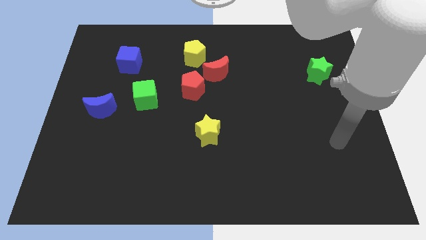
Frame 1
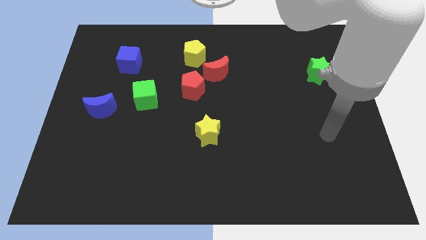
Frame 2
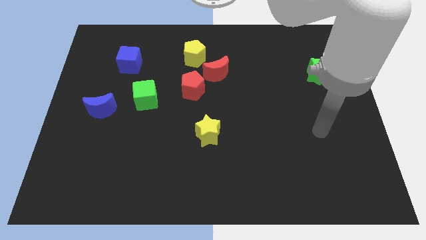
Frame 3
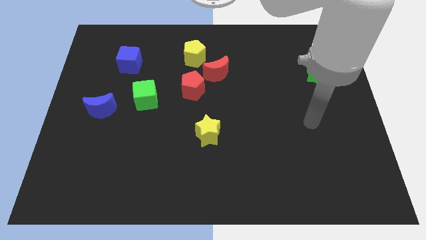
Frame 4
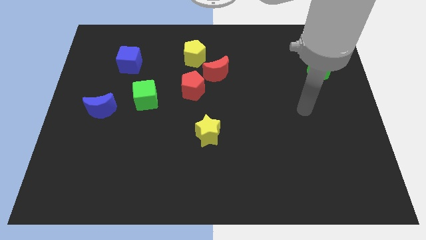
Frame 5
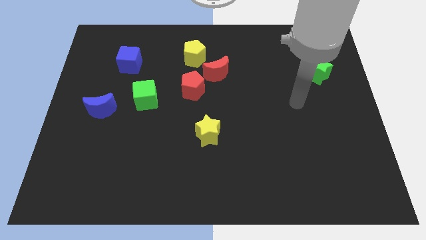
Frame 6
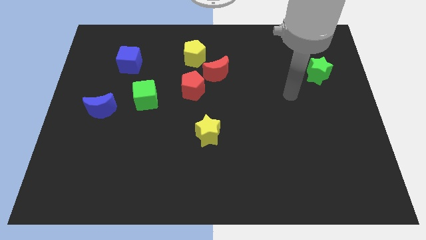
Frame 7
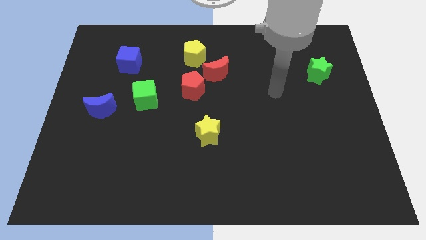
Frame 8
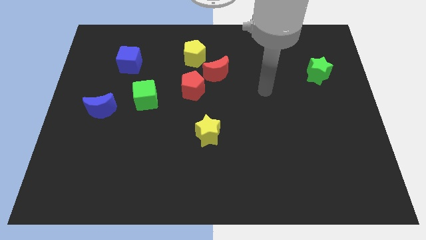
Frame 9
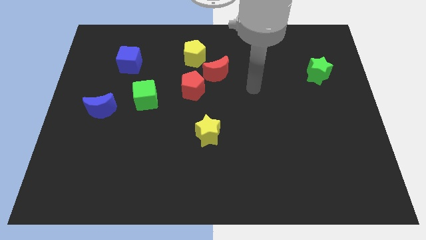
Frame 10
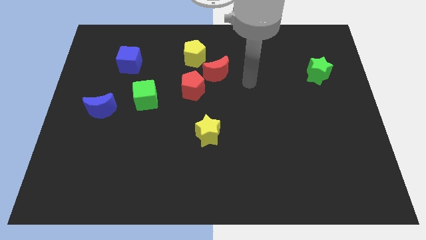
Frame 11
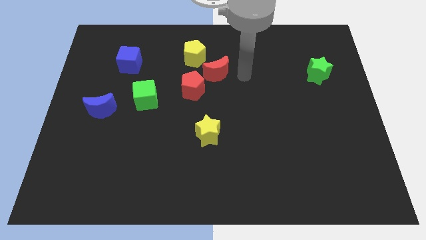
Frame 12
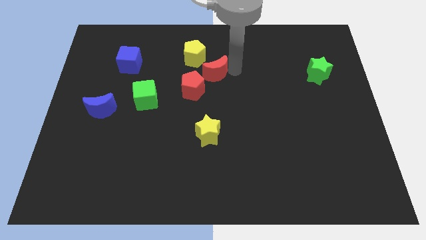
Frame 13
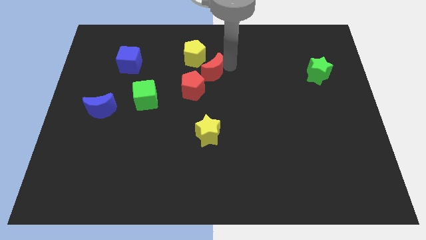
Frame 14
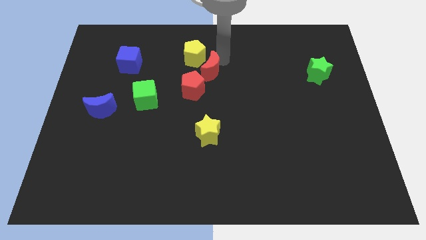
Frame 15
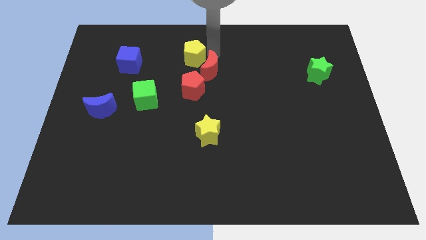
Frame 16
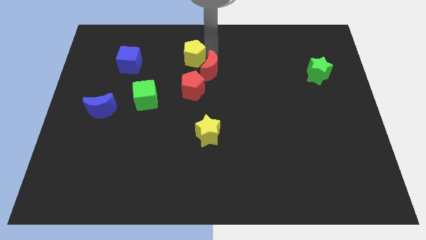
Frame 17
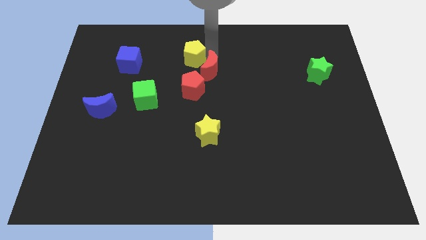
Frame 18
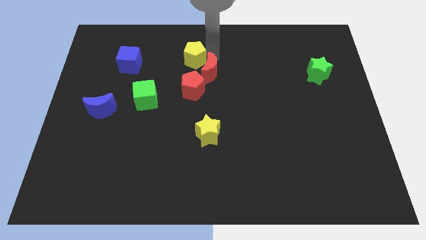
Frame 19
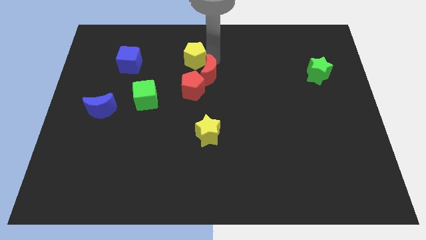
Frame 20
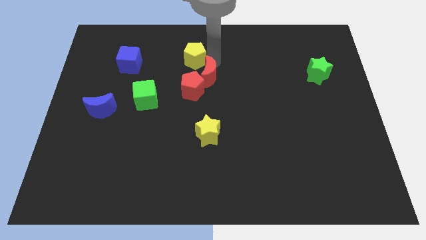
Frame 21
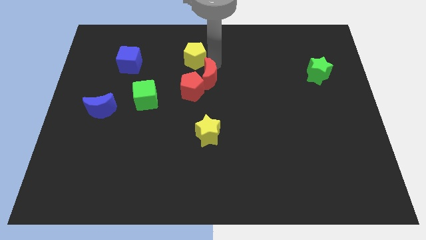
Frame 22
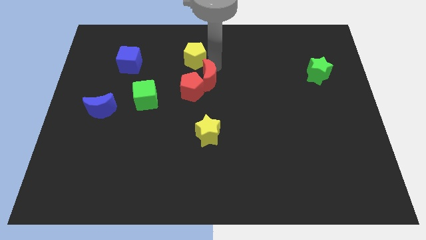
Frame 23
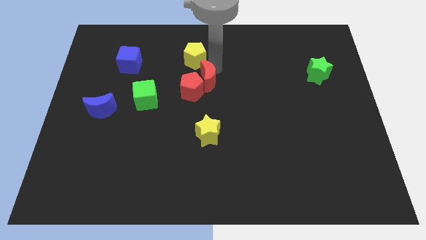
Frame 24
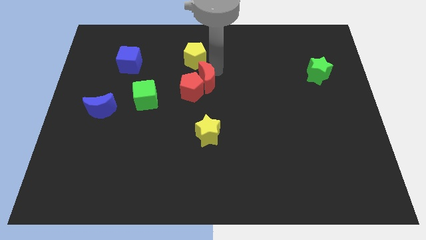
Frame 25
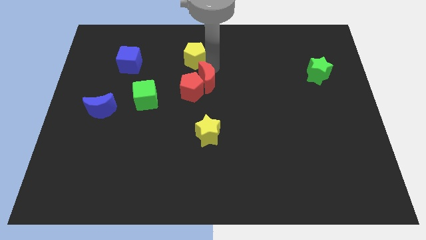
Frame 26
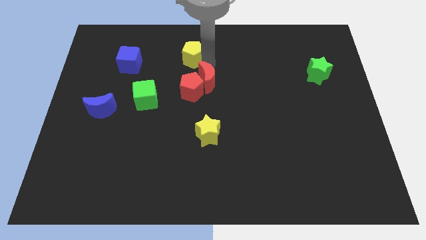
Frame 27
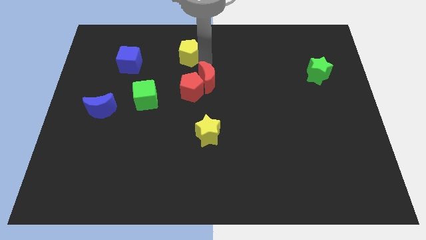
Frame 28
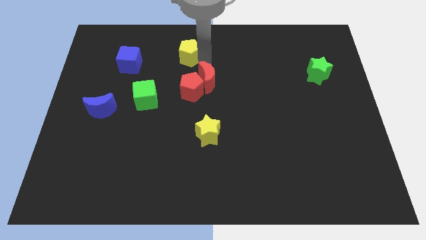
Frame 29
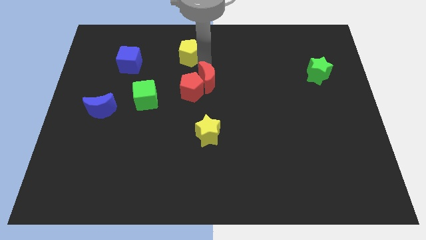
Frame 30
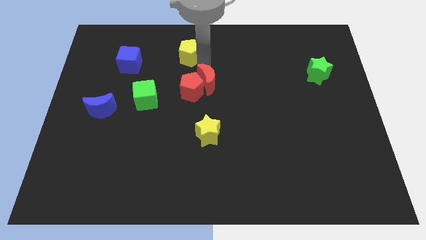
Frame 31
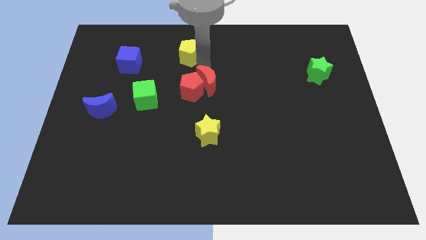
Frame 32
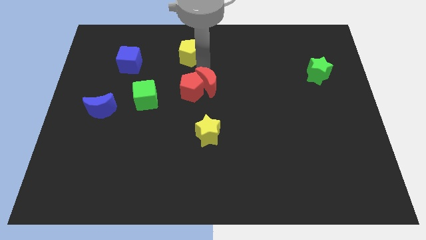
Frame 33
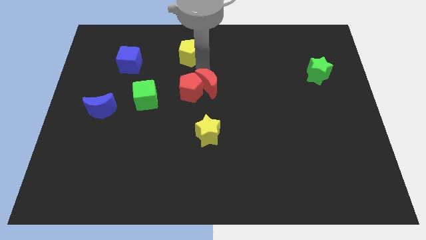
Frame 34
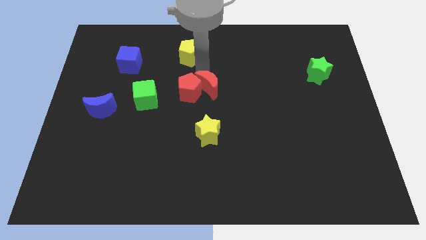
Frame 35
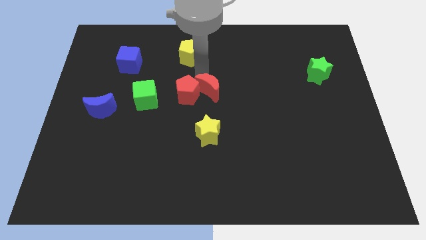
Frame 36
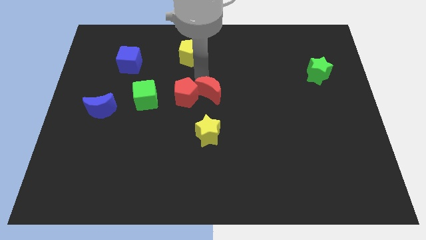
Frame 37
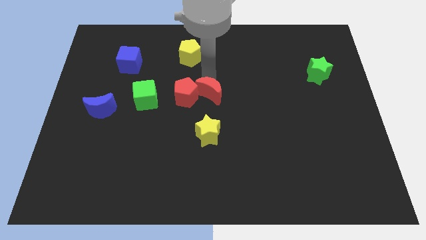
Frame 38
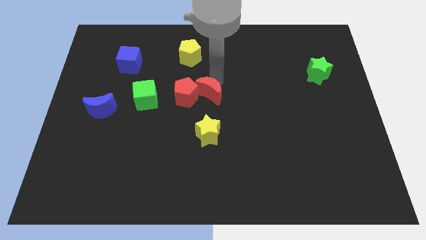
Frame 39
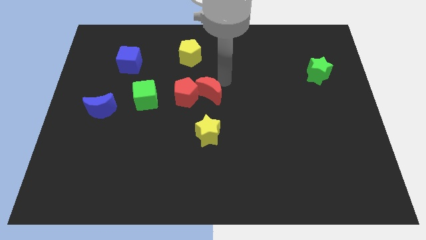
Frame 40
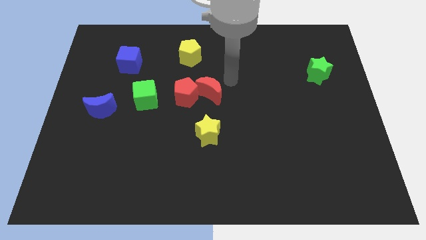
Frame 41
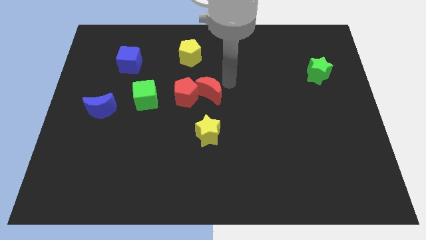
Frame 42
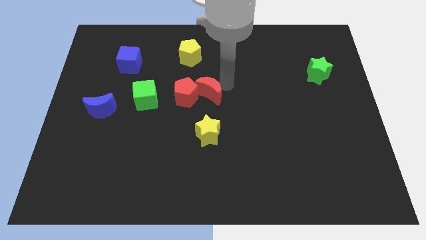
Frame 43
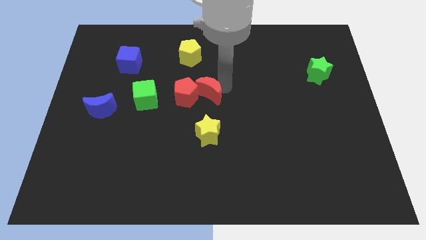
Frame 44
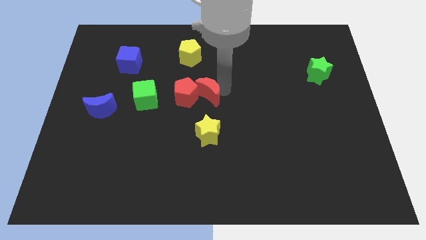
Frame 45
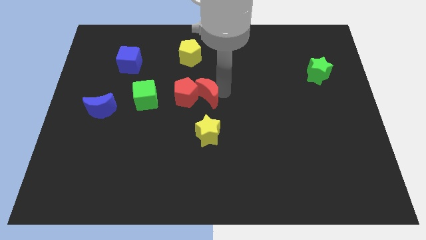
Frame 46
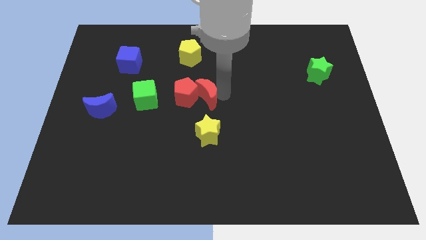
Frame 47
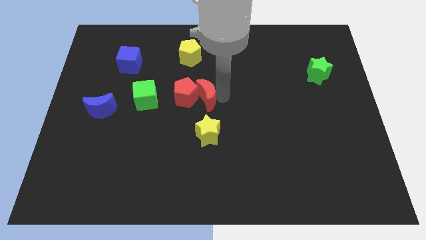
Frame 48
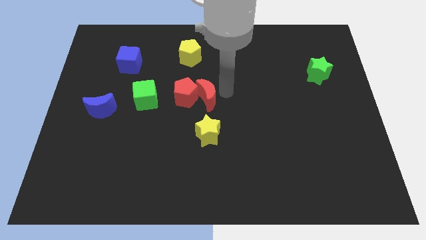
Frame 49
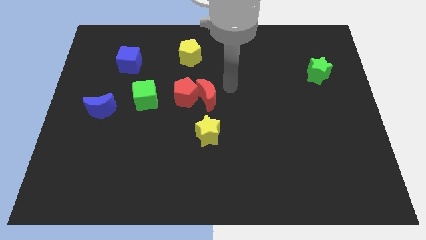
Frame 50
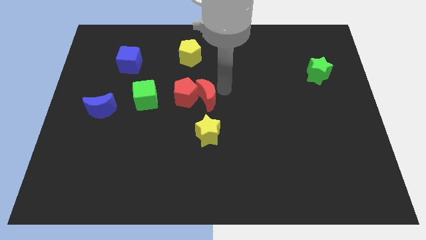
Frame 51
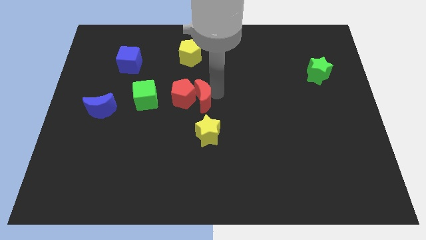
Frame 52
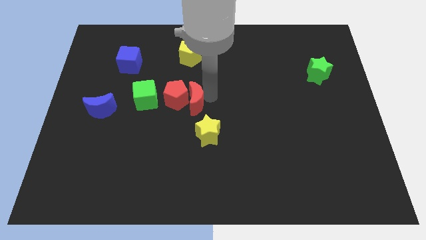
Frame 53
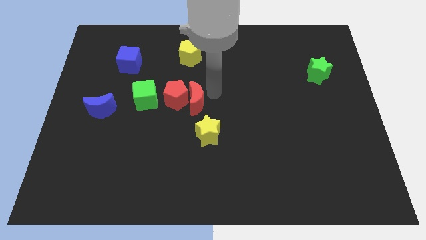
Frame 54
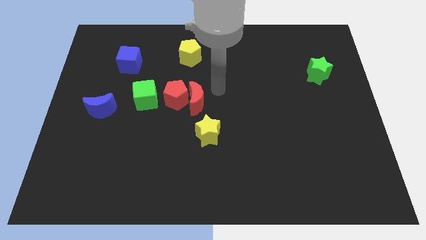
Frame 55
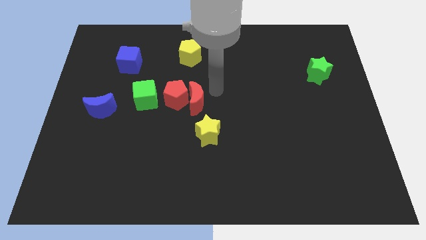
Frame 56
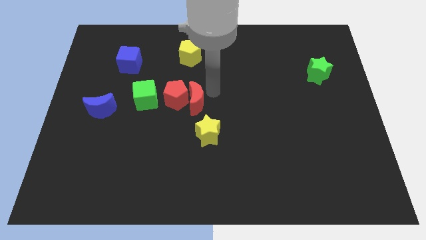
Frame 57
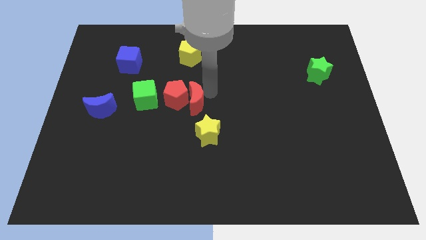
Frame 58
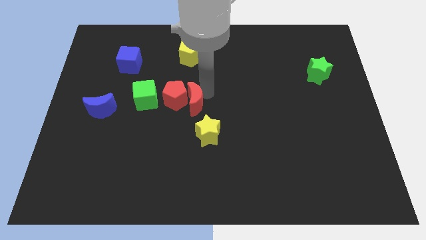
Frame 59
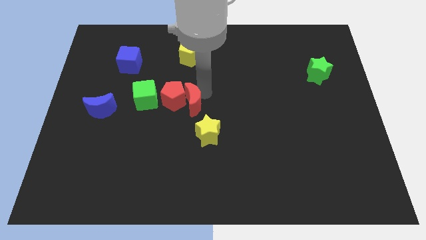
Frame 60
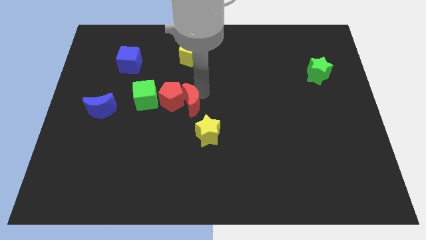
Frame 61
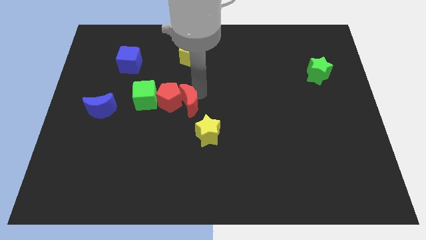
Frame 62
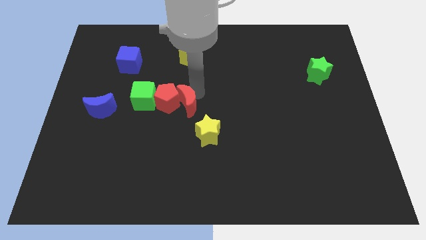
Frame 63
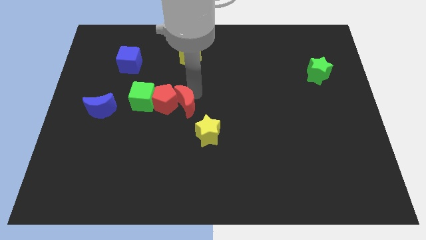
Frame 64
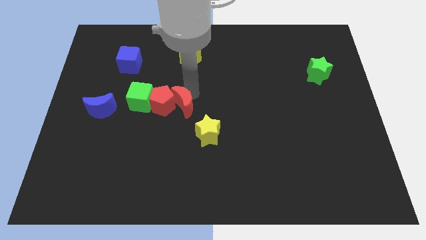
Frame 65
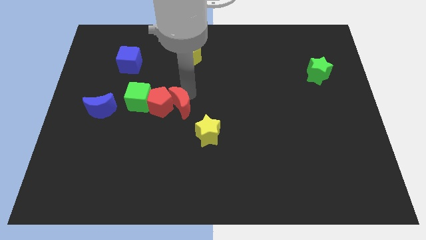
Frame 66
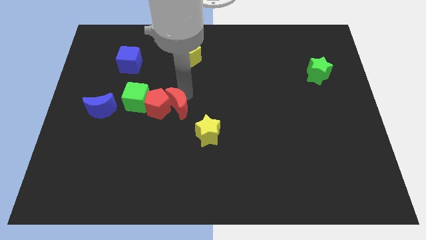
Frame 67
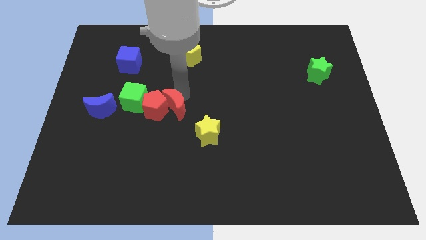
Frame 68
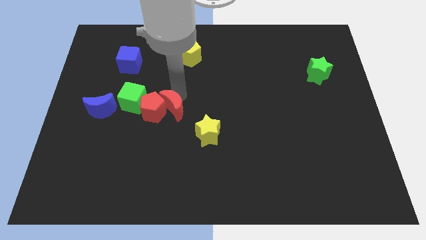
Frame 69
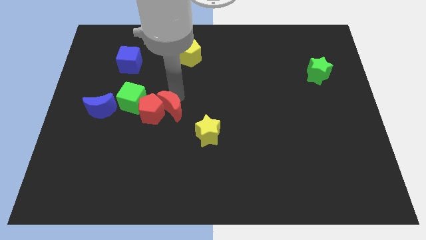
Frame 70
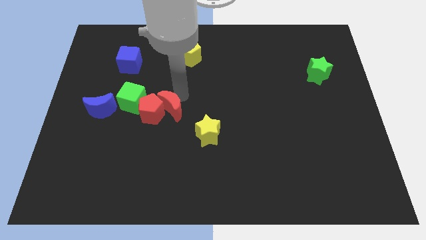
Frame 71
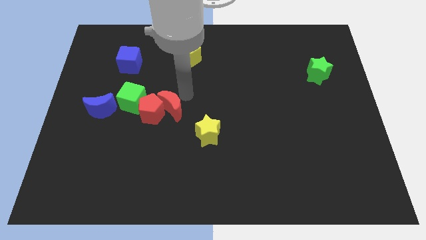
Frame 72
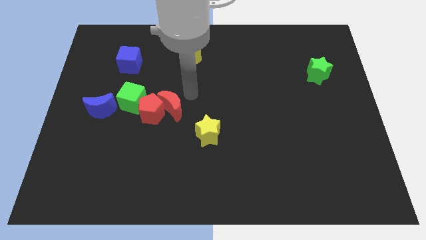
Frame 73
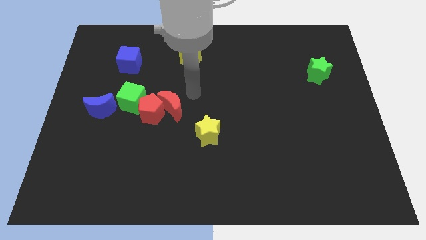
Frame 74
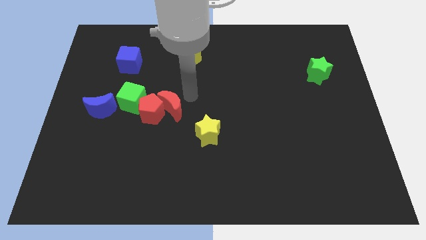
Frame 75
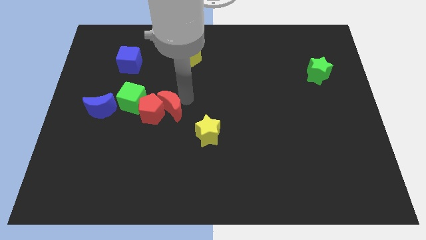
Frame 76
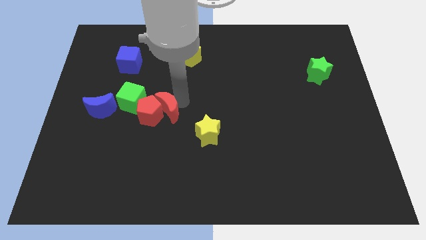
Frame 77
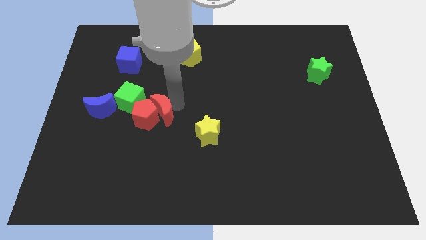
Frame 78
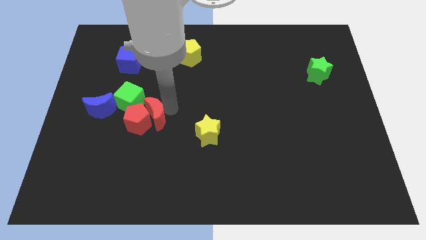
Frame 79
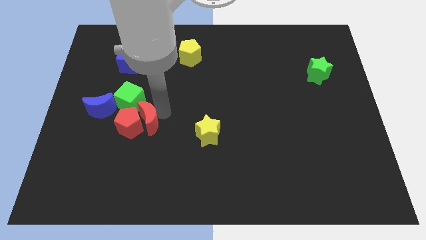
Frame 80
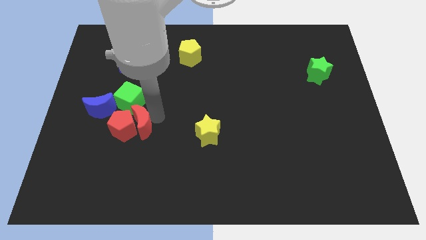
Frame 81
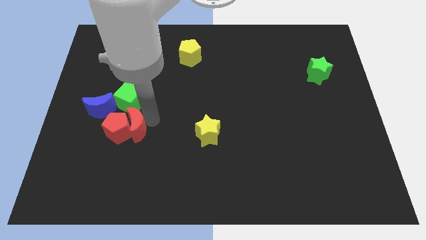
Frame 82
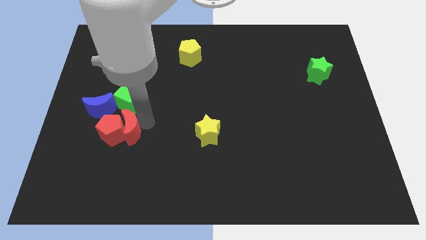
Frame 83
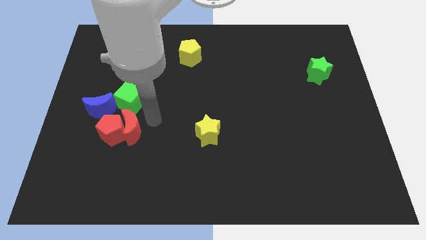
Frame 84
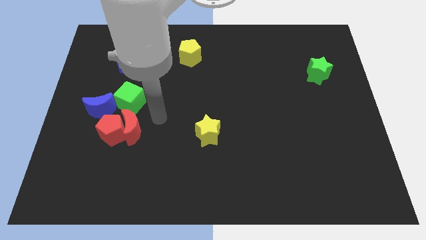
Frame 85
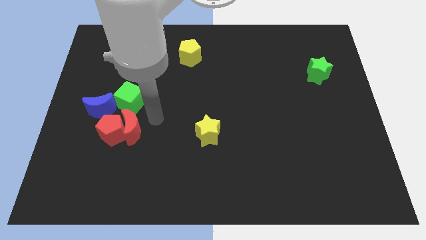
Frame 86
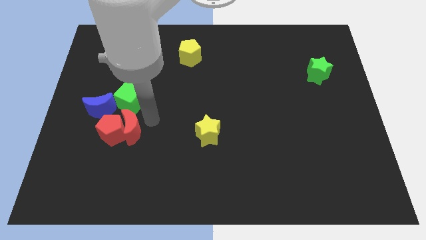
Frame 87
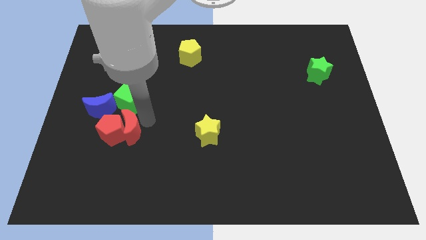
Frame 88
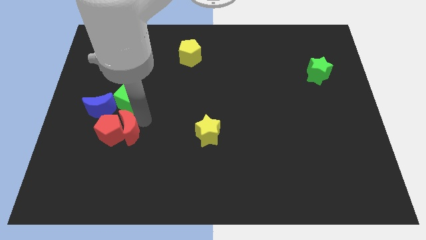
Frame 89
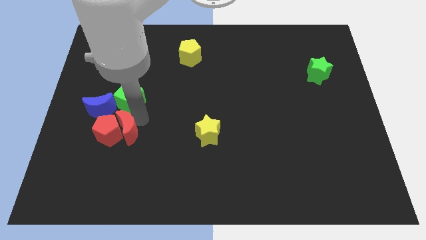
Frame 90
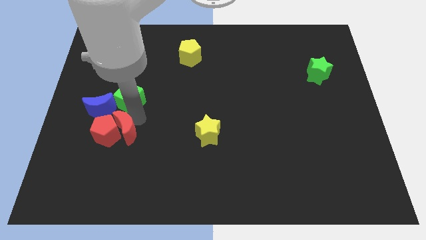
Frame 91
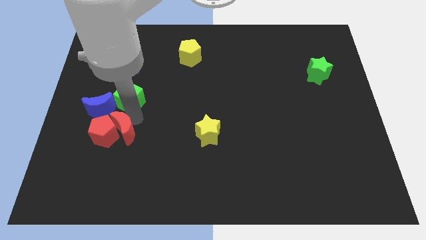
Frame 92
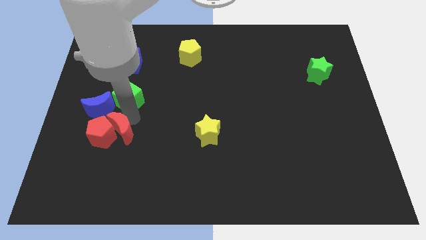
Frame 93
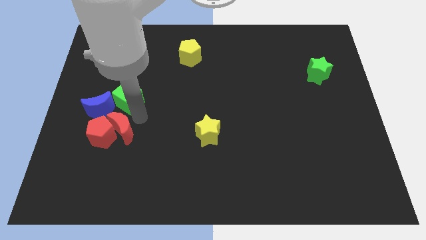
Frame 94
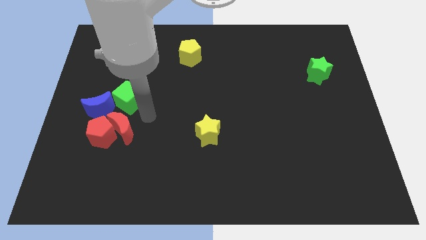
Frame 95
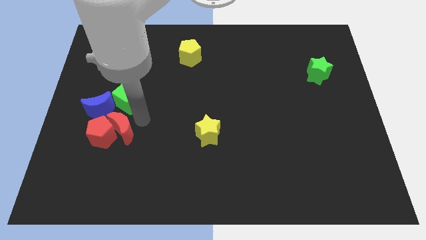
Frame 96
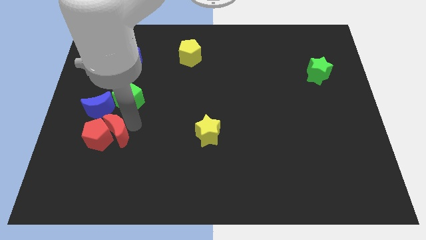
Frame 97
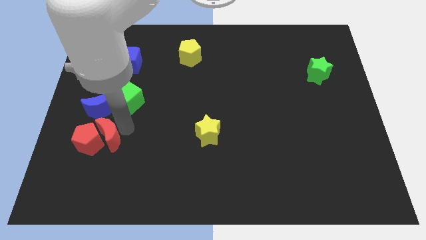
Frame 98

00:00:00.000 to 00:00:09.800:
push the red moon to the bottom side of the blue moon
